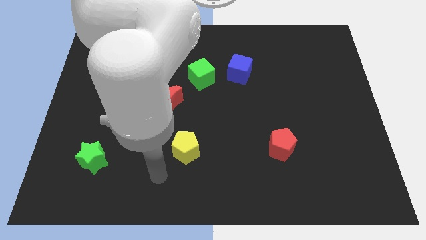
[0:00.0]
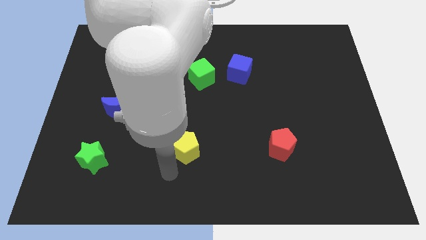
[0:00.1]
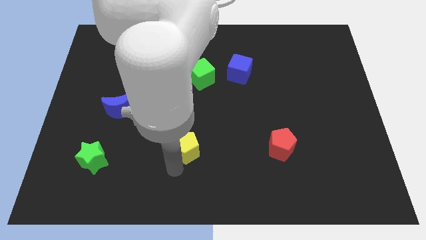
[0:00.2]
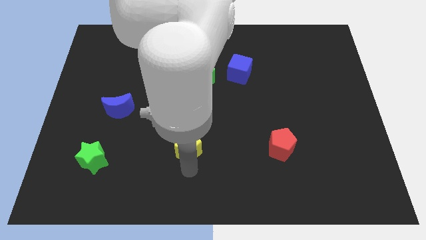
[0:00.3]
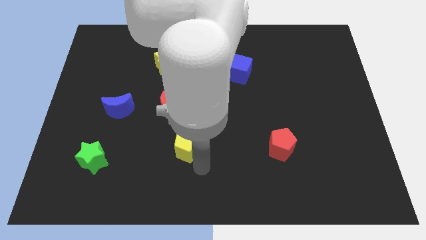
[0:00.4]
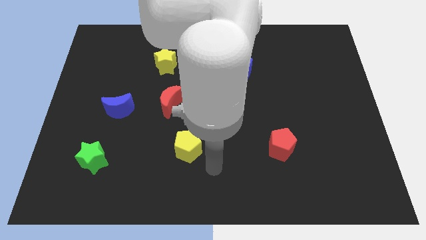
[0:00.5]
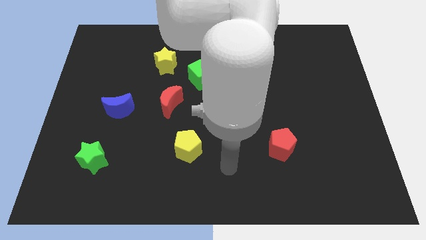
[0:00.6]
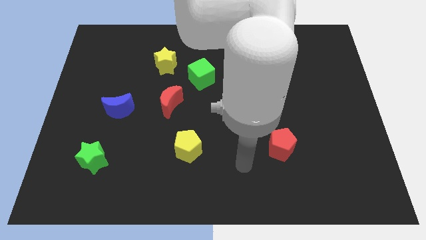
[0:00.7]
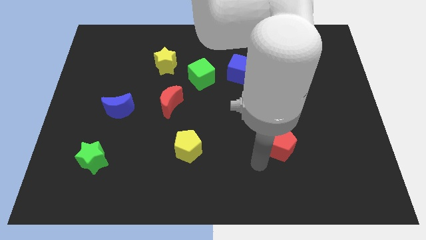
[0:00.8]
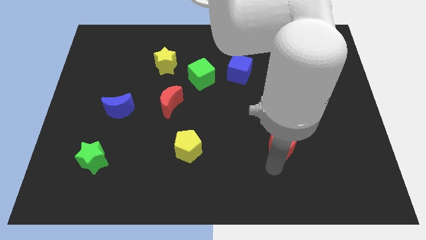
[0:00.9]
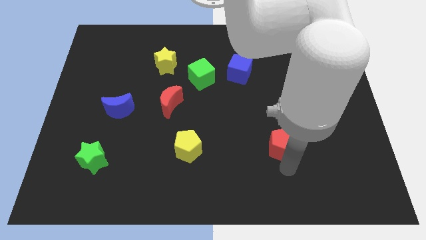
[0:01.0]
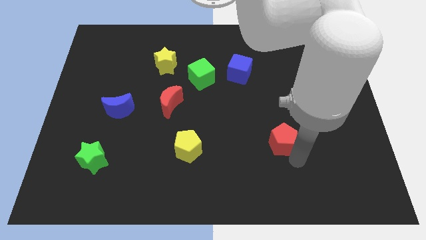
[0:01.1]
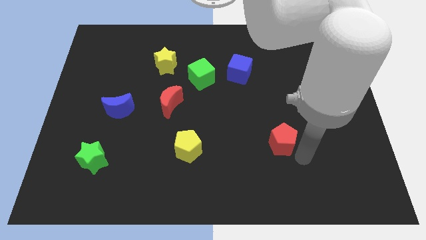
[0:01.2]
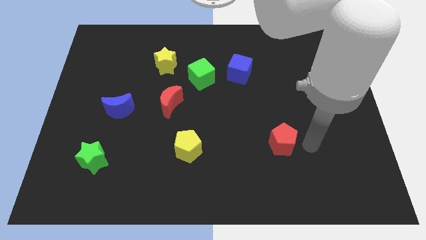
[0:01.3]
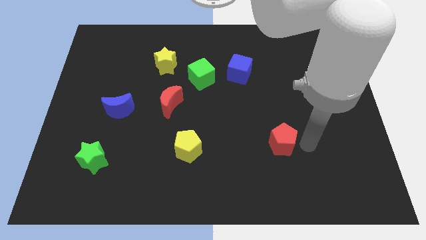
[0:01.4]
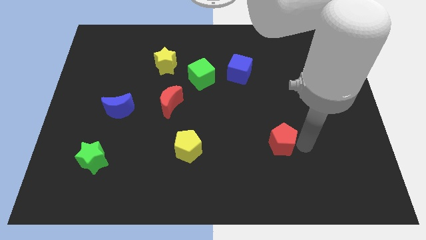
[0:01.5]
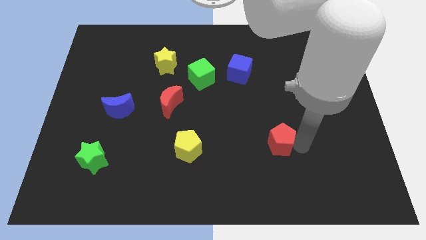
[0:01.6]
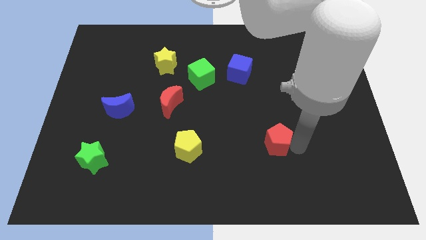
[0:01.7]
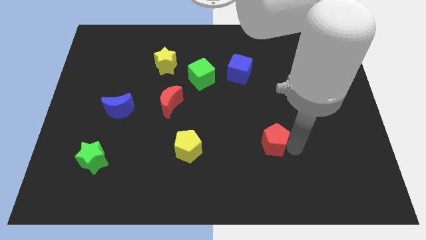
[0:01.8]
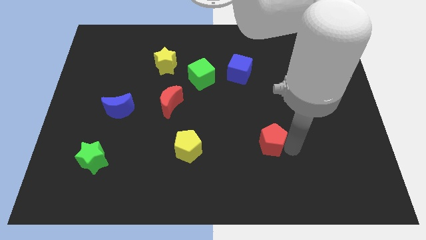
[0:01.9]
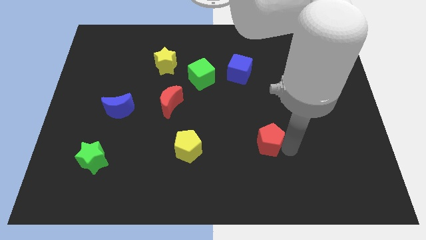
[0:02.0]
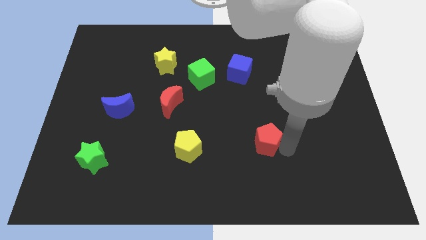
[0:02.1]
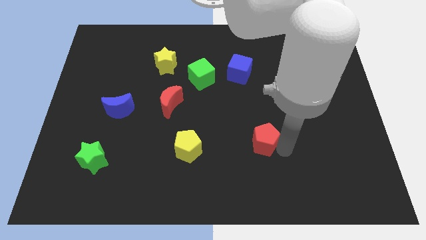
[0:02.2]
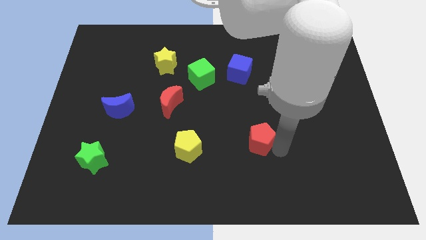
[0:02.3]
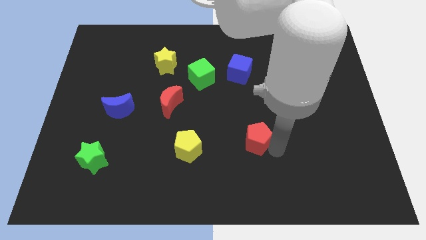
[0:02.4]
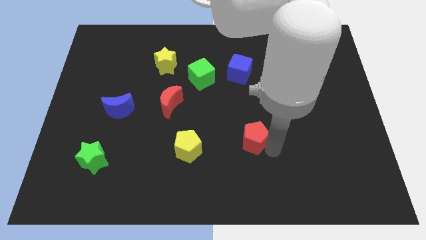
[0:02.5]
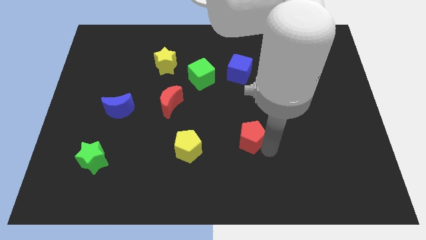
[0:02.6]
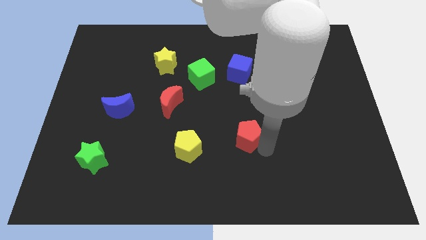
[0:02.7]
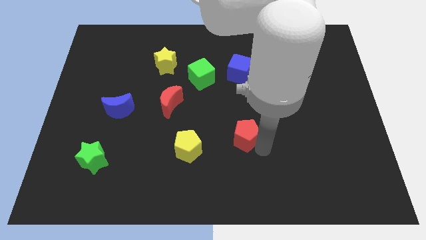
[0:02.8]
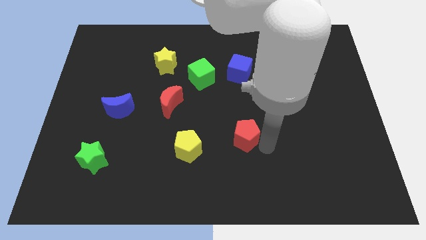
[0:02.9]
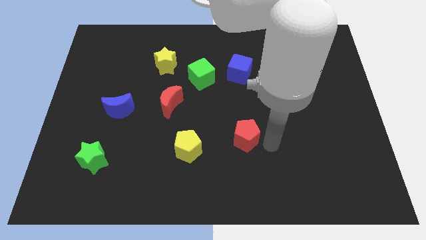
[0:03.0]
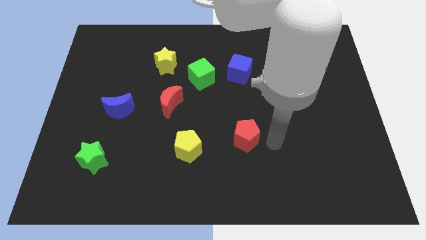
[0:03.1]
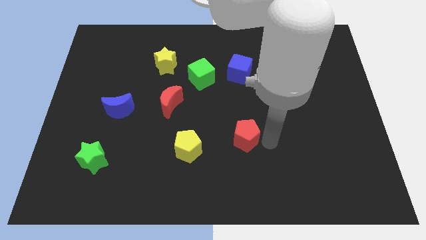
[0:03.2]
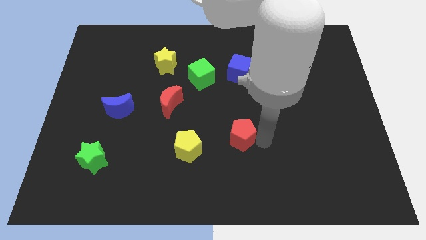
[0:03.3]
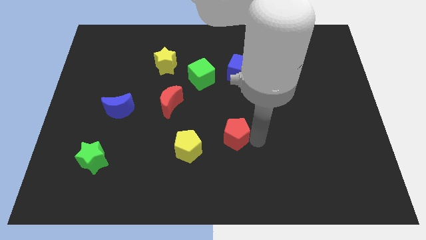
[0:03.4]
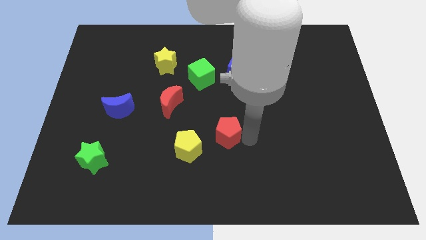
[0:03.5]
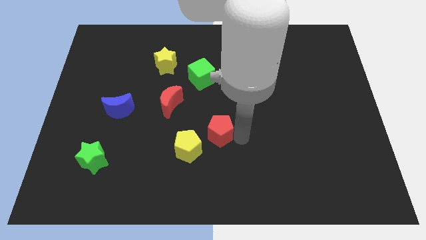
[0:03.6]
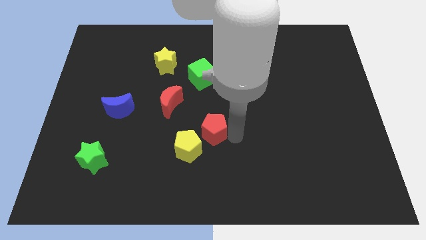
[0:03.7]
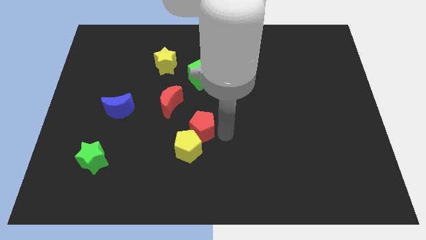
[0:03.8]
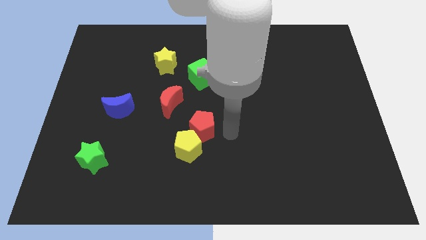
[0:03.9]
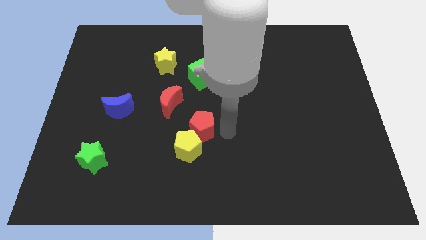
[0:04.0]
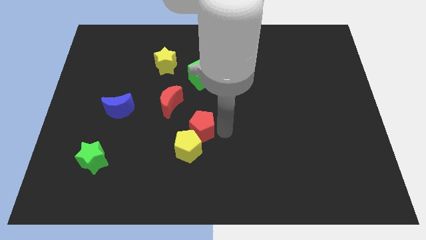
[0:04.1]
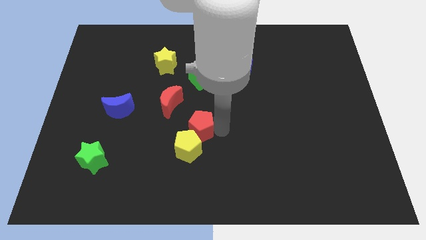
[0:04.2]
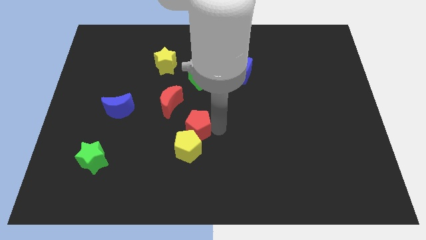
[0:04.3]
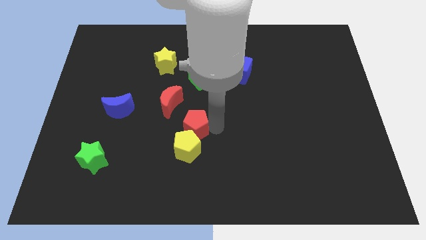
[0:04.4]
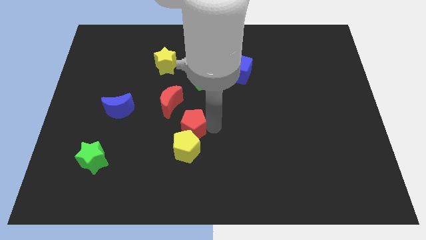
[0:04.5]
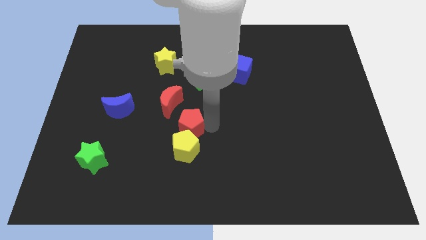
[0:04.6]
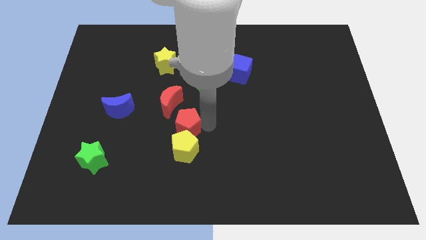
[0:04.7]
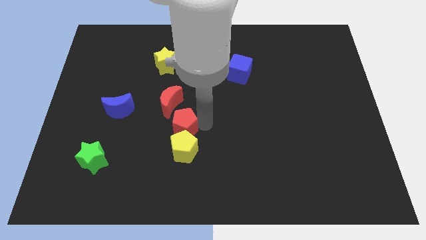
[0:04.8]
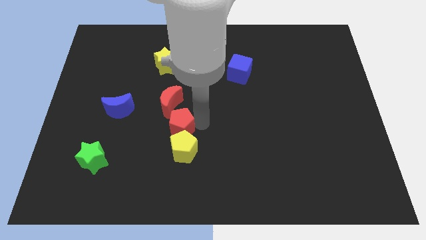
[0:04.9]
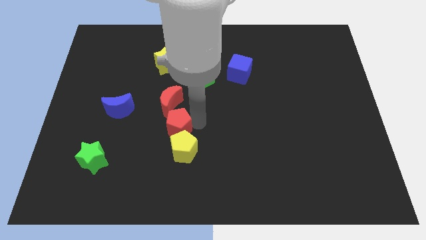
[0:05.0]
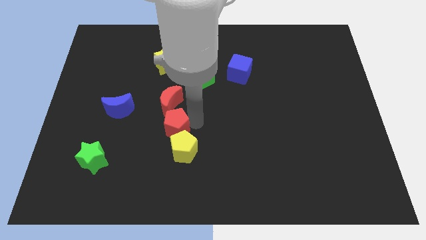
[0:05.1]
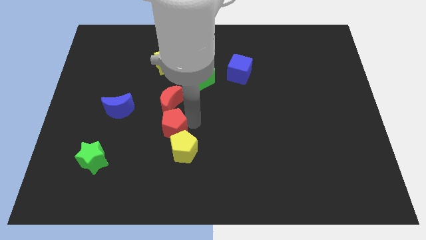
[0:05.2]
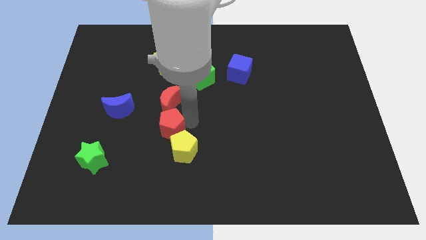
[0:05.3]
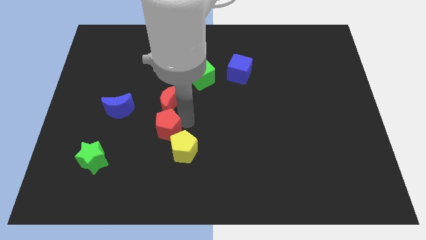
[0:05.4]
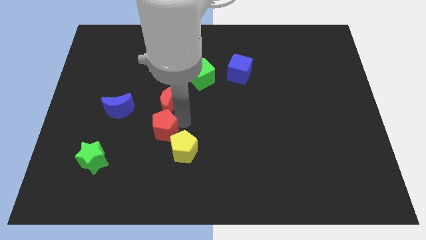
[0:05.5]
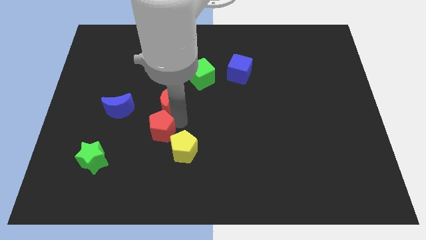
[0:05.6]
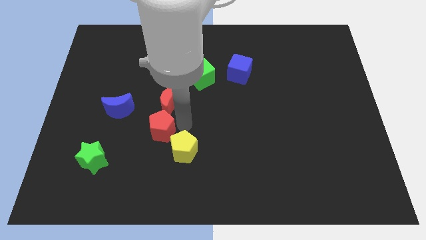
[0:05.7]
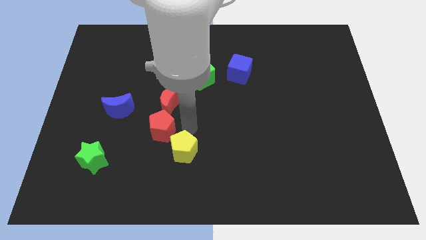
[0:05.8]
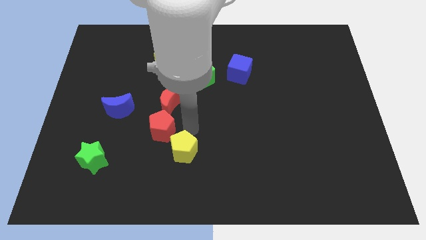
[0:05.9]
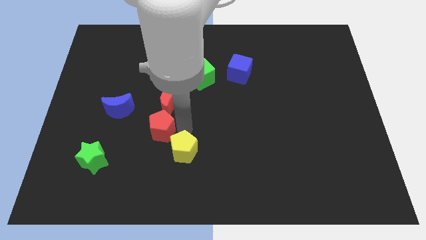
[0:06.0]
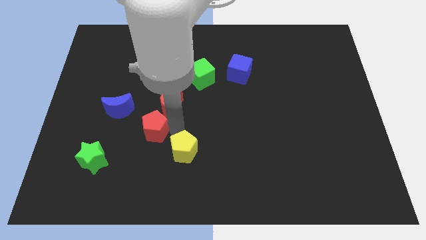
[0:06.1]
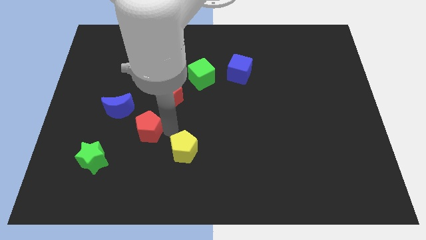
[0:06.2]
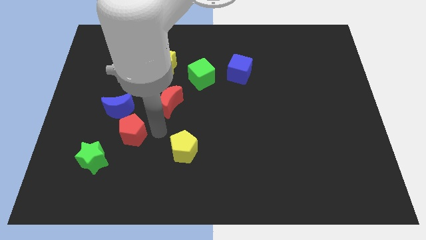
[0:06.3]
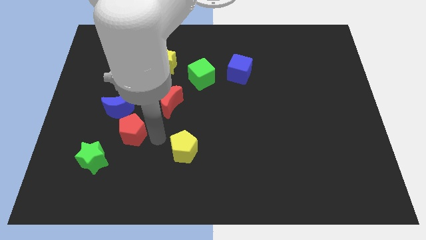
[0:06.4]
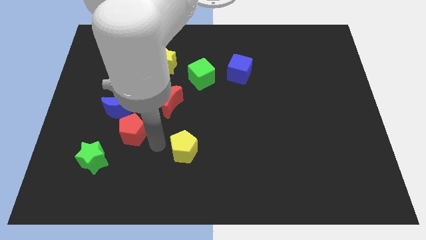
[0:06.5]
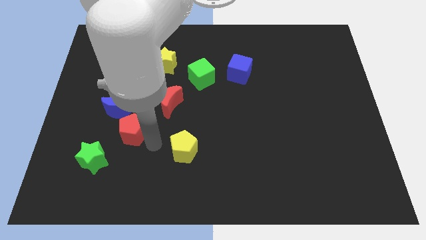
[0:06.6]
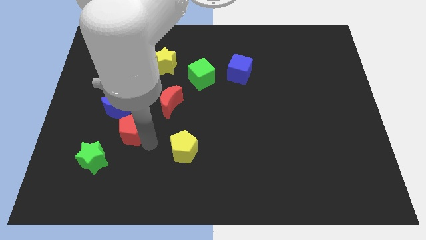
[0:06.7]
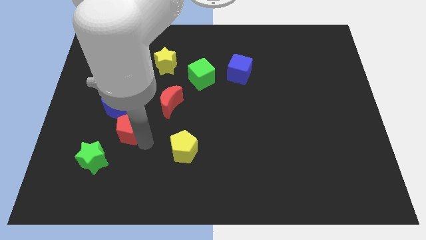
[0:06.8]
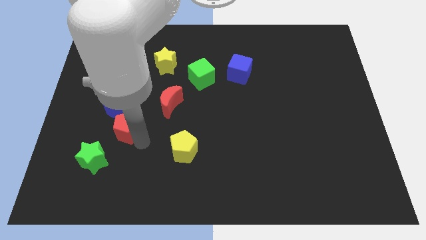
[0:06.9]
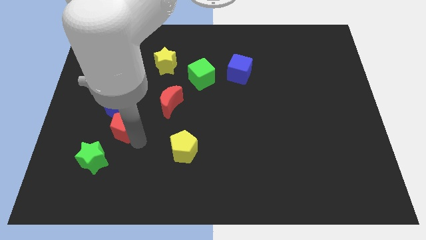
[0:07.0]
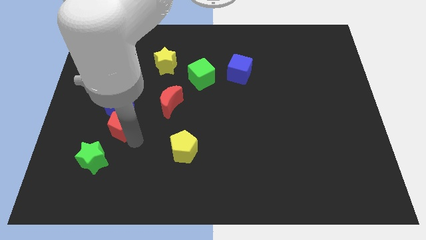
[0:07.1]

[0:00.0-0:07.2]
move the red pentagon above the green star
